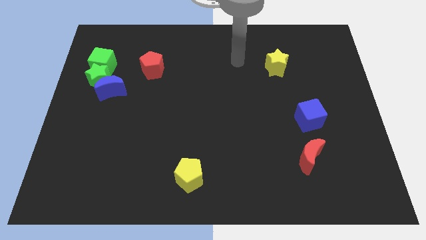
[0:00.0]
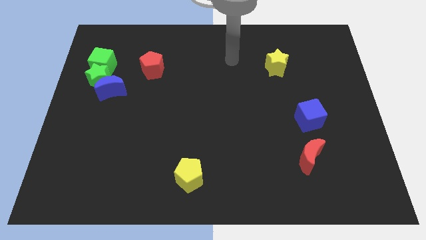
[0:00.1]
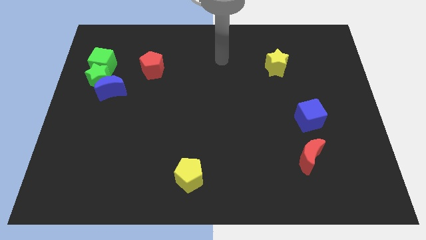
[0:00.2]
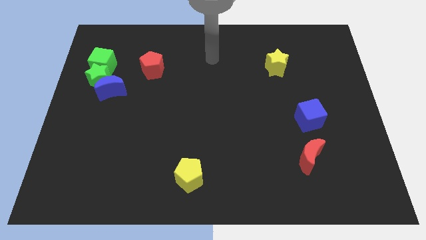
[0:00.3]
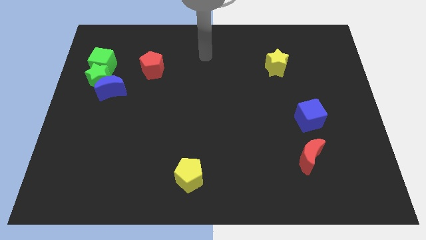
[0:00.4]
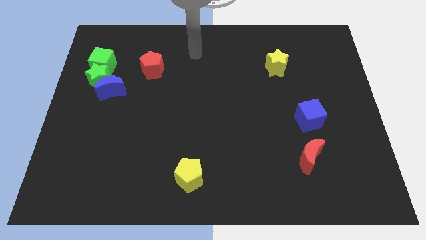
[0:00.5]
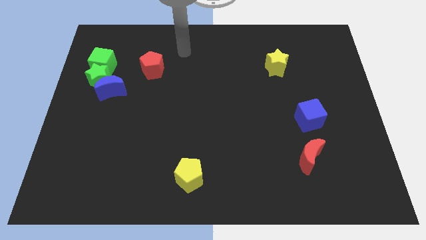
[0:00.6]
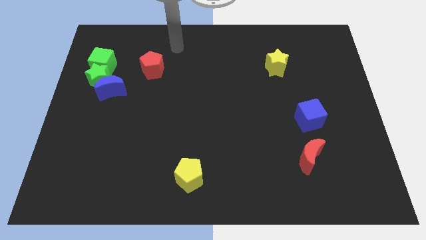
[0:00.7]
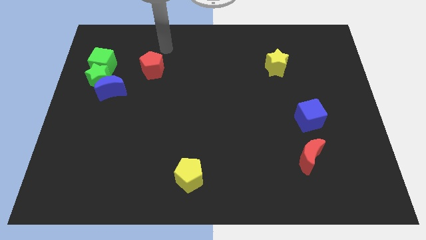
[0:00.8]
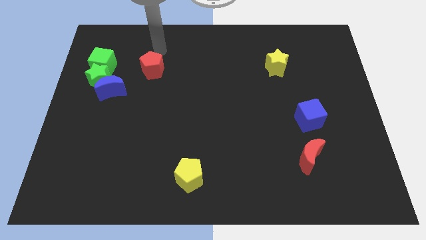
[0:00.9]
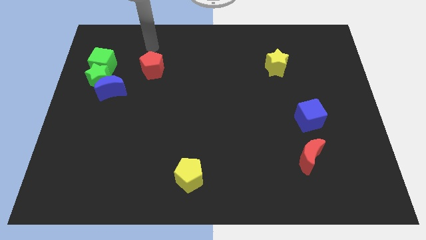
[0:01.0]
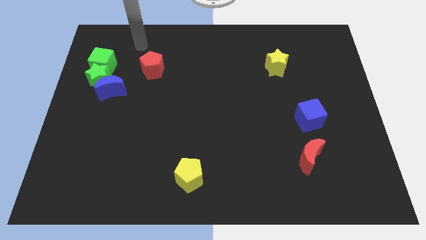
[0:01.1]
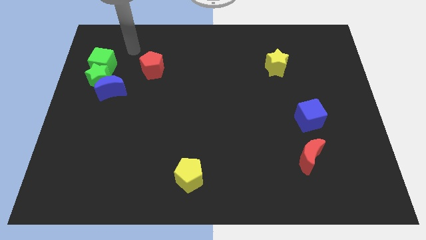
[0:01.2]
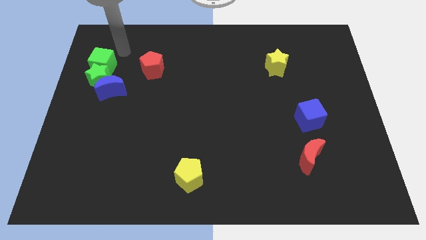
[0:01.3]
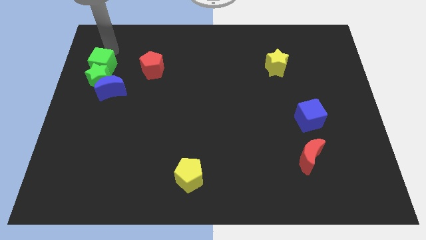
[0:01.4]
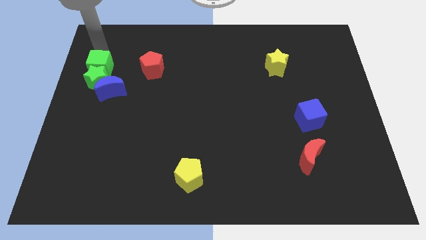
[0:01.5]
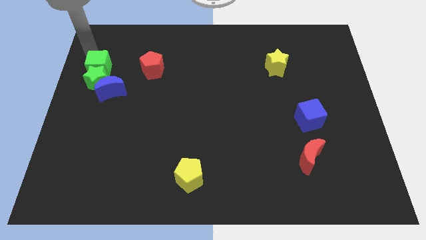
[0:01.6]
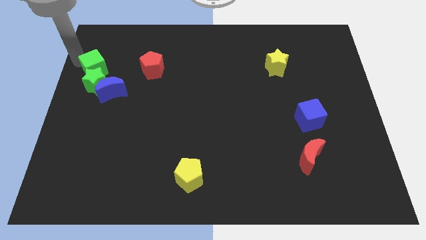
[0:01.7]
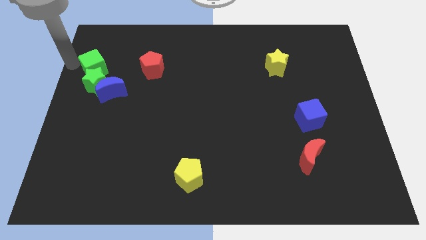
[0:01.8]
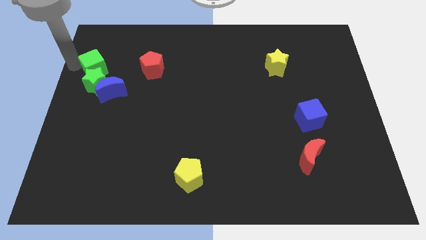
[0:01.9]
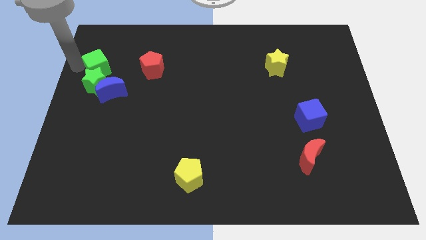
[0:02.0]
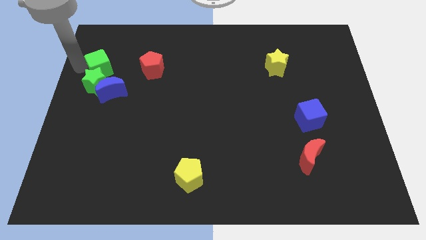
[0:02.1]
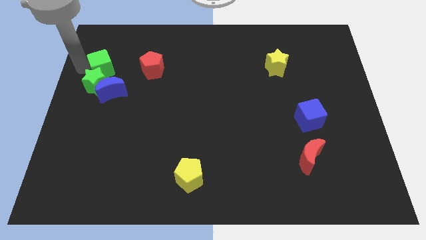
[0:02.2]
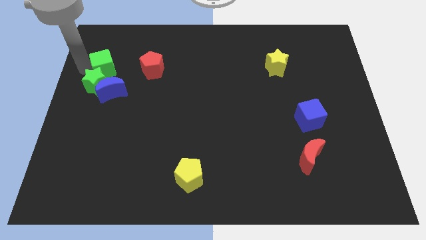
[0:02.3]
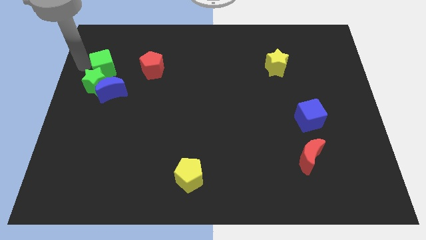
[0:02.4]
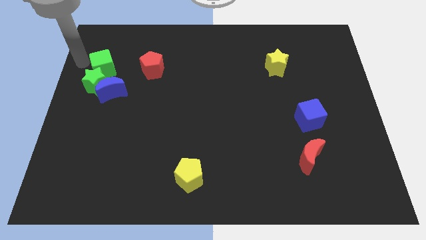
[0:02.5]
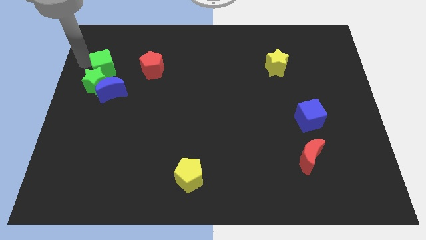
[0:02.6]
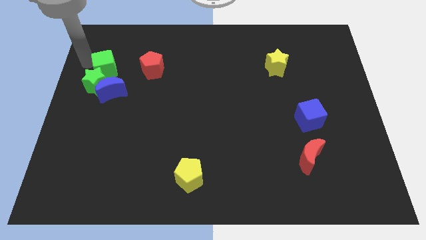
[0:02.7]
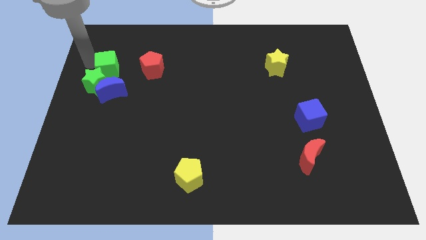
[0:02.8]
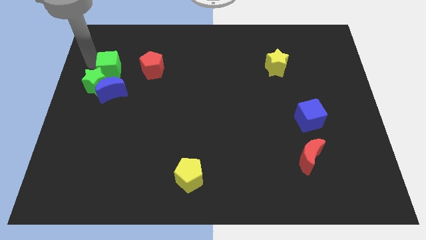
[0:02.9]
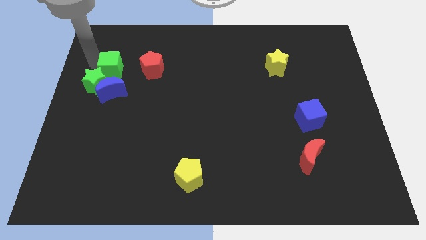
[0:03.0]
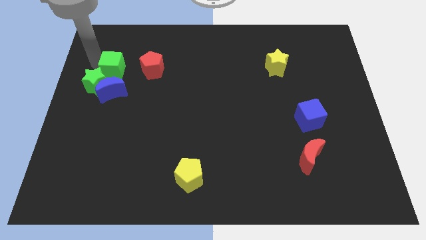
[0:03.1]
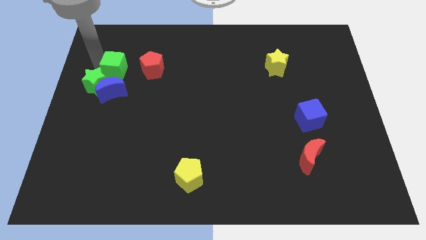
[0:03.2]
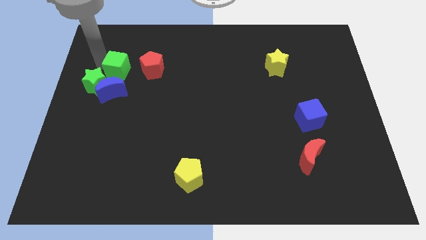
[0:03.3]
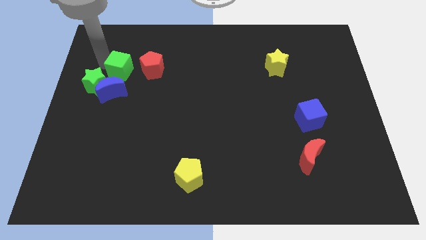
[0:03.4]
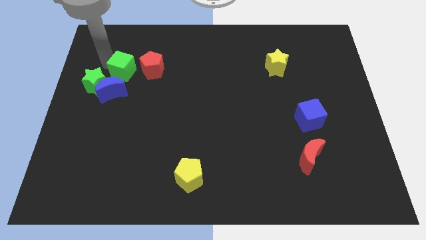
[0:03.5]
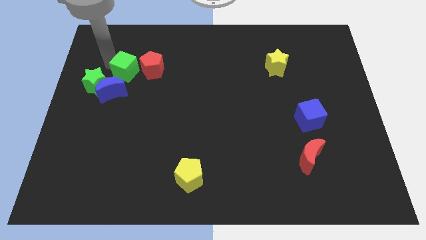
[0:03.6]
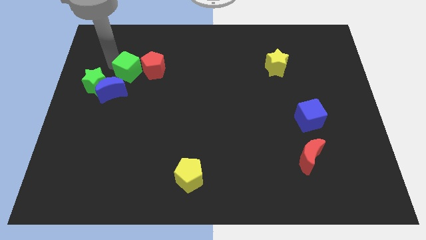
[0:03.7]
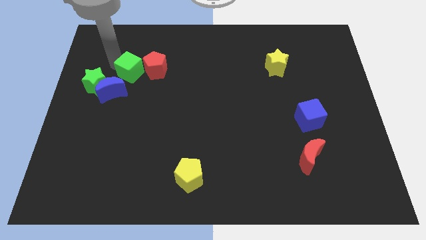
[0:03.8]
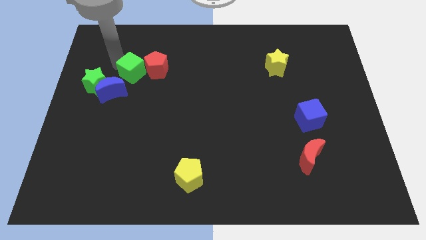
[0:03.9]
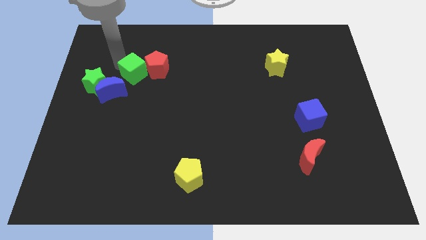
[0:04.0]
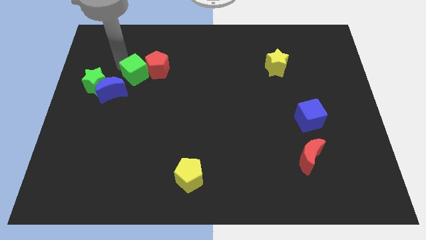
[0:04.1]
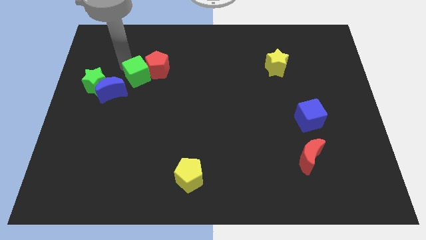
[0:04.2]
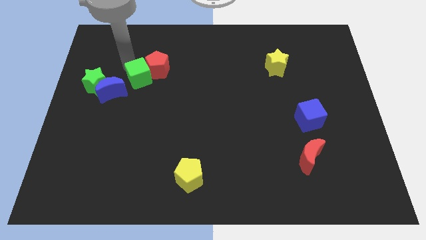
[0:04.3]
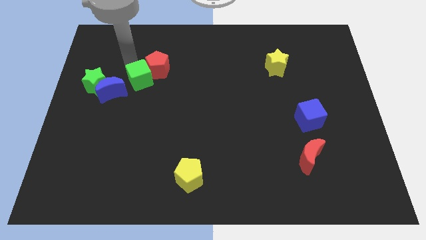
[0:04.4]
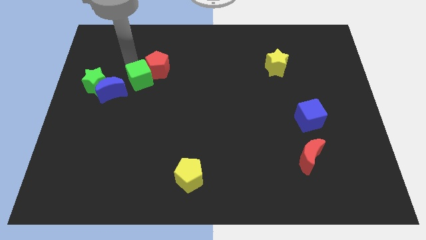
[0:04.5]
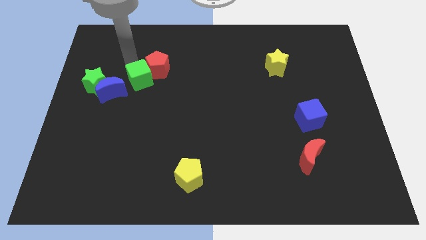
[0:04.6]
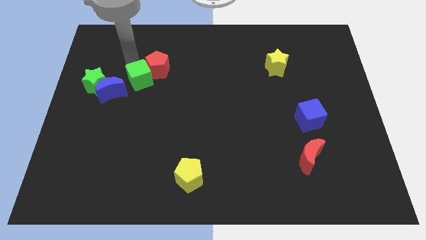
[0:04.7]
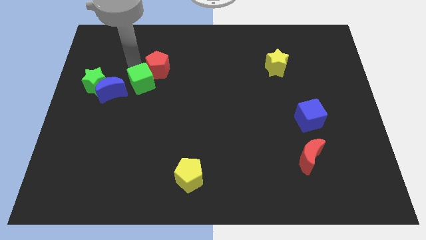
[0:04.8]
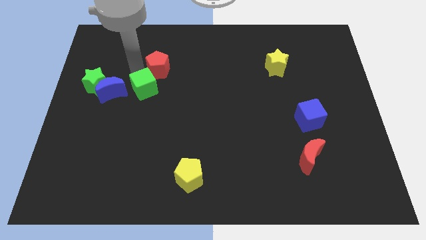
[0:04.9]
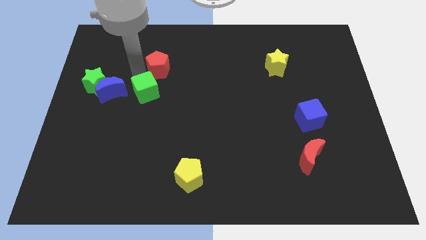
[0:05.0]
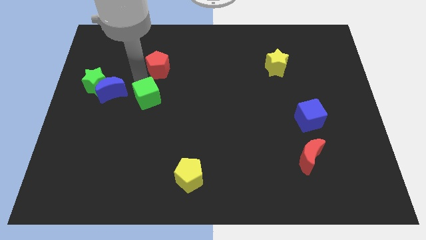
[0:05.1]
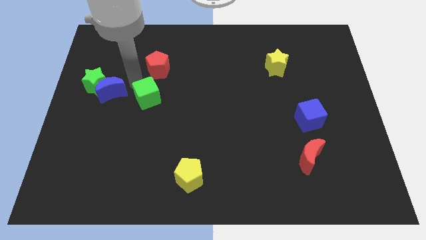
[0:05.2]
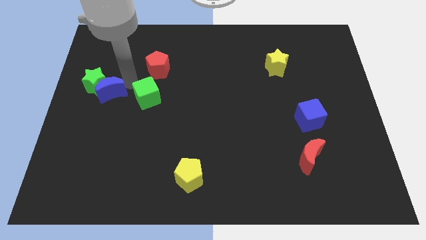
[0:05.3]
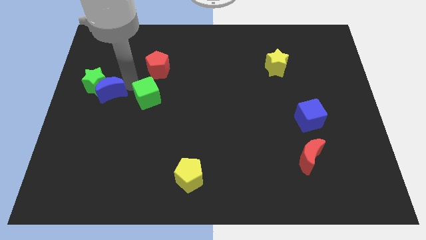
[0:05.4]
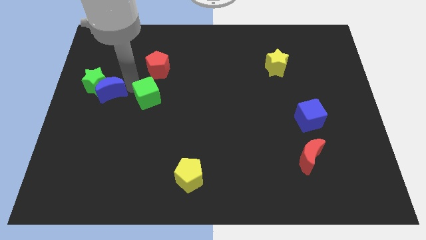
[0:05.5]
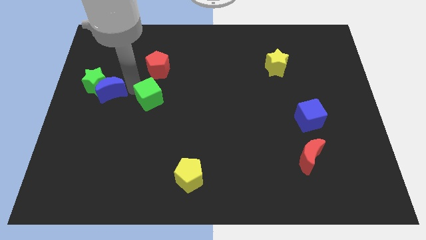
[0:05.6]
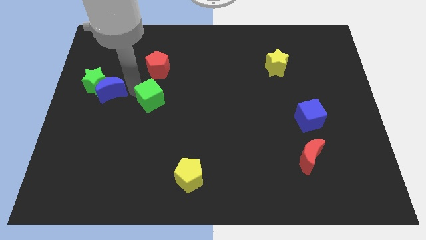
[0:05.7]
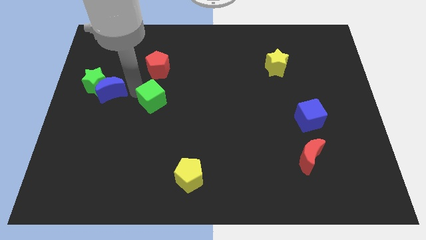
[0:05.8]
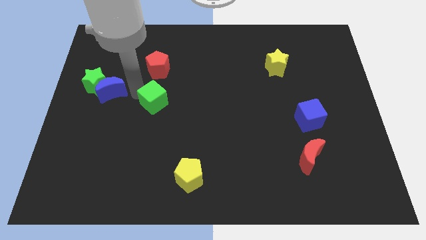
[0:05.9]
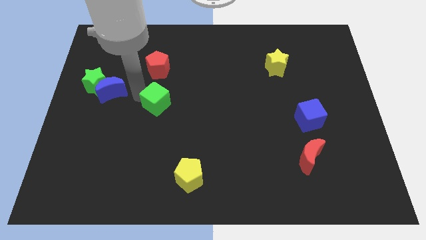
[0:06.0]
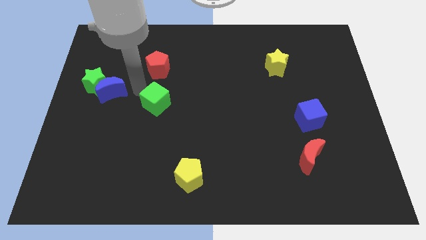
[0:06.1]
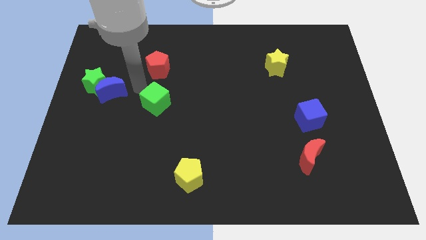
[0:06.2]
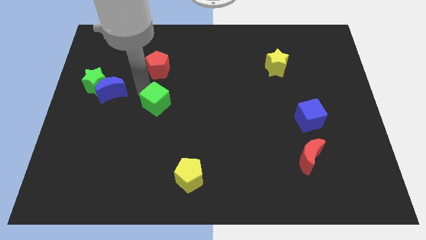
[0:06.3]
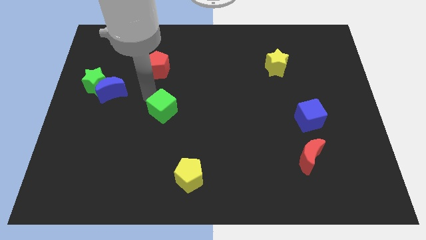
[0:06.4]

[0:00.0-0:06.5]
slide the green cube diagonally downwards and to the right

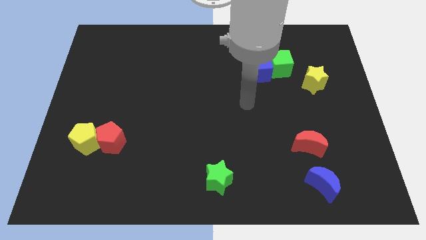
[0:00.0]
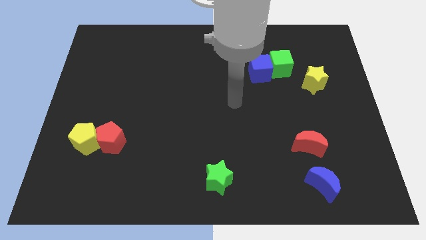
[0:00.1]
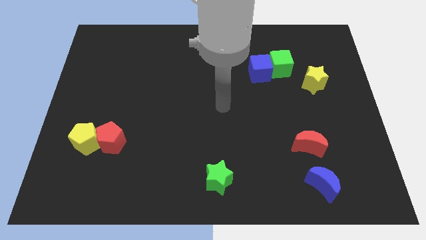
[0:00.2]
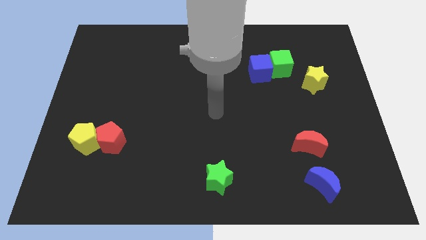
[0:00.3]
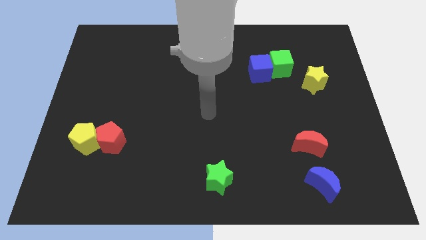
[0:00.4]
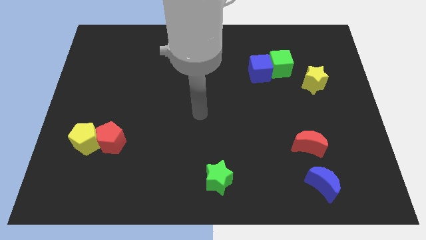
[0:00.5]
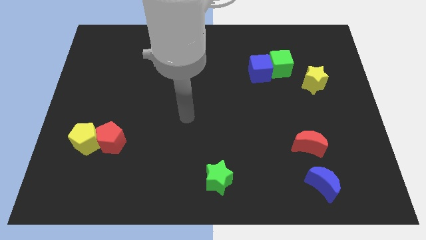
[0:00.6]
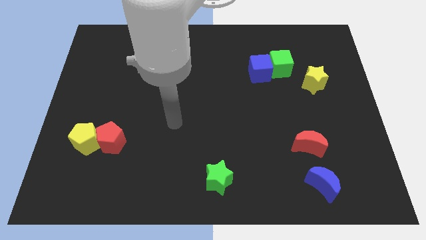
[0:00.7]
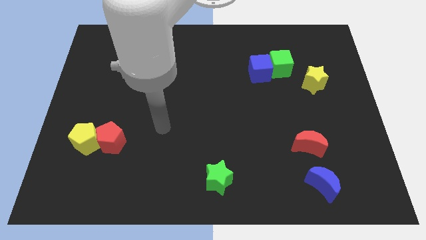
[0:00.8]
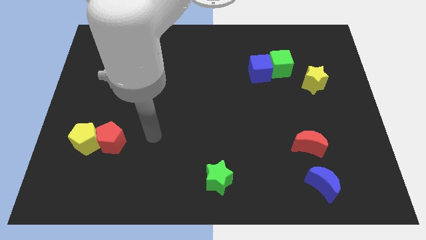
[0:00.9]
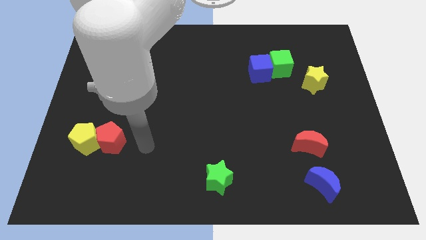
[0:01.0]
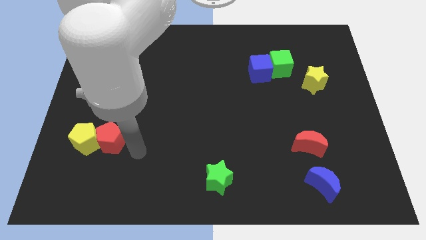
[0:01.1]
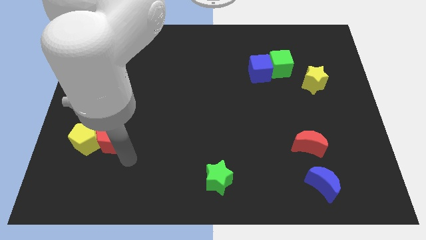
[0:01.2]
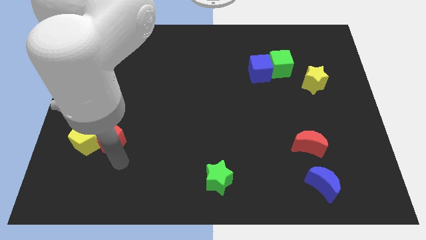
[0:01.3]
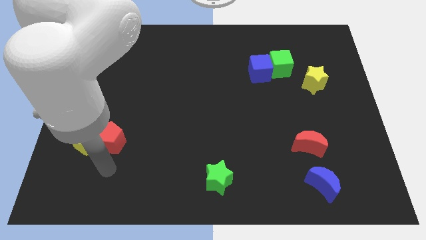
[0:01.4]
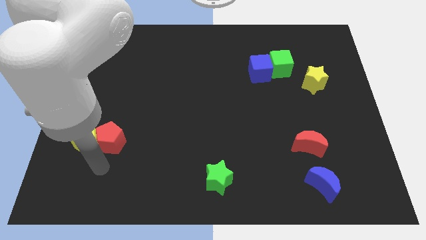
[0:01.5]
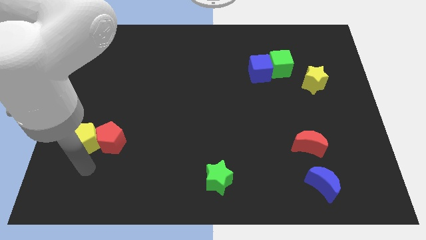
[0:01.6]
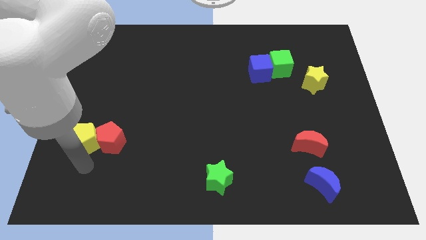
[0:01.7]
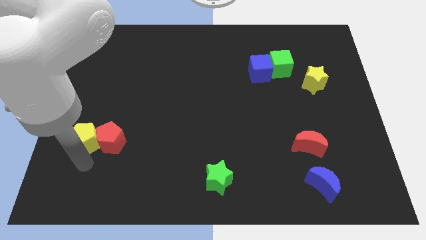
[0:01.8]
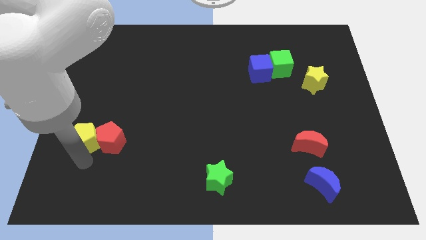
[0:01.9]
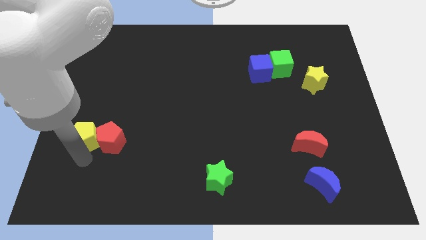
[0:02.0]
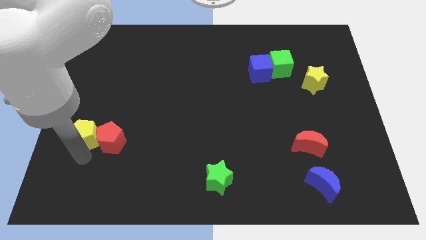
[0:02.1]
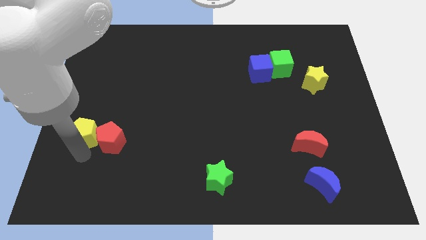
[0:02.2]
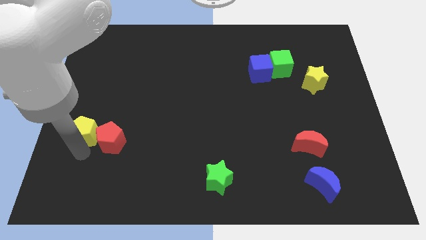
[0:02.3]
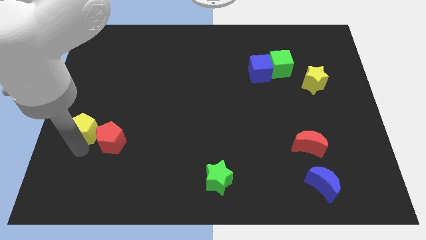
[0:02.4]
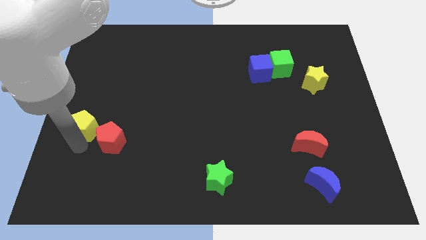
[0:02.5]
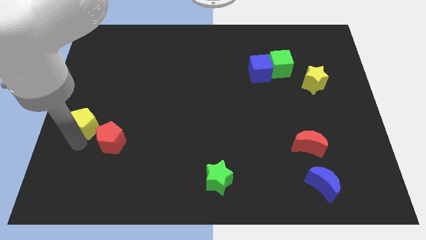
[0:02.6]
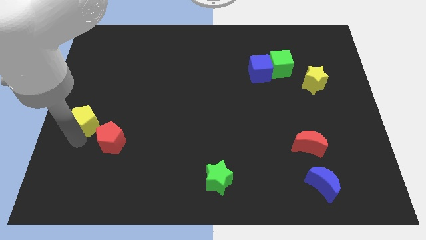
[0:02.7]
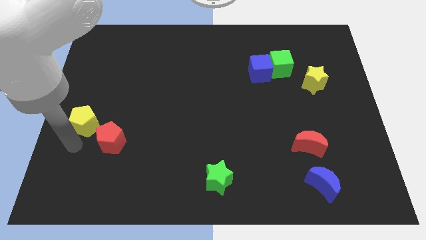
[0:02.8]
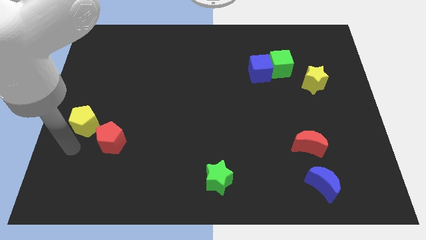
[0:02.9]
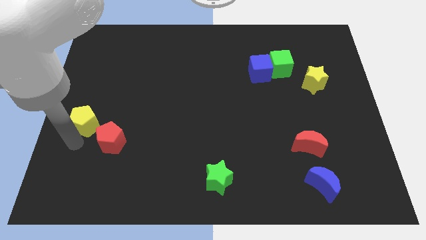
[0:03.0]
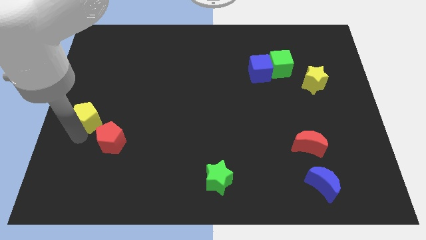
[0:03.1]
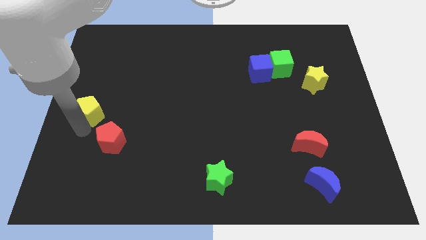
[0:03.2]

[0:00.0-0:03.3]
slide the yellow pentagon somewhat upwards
